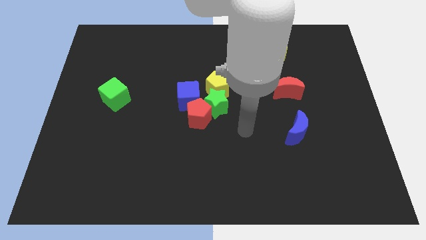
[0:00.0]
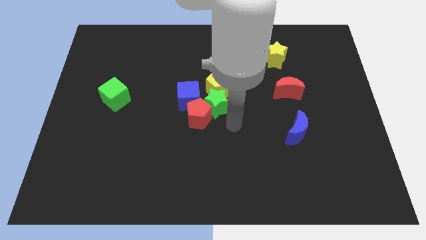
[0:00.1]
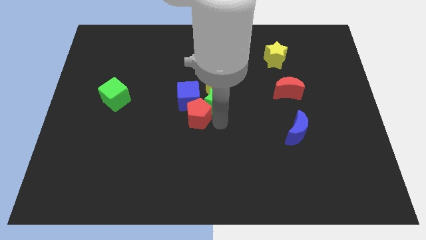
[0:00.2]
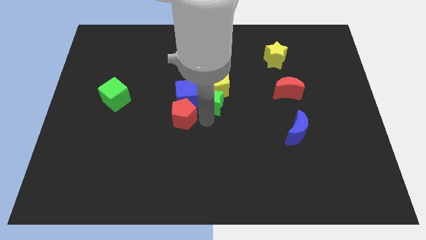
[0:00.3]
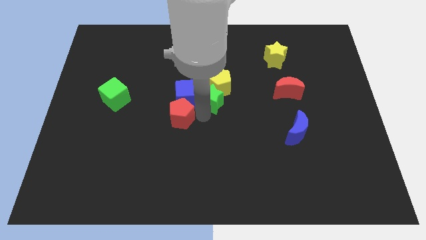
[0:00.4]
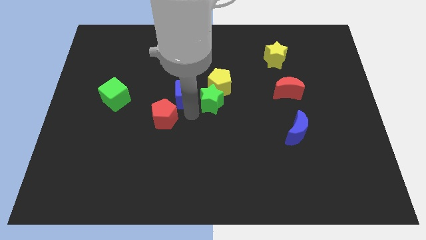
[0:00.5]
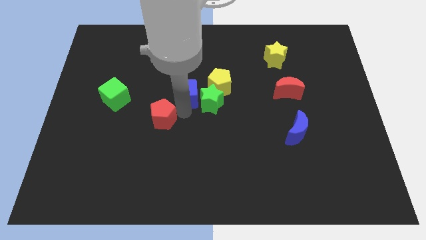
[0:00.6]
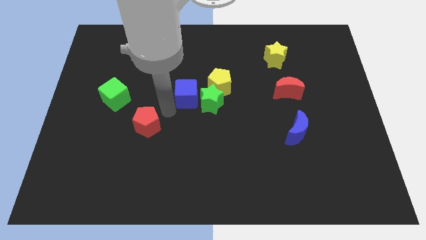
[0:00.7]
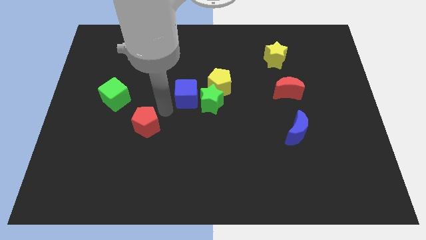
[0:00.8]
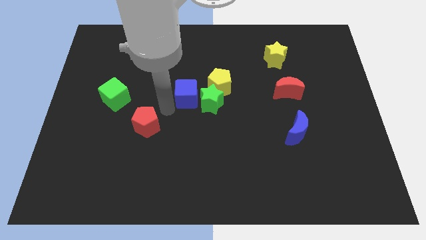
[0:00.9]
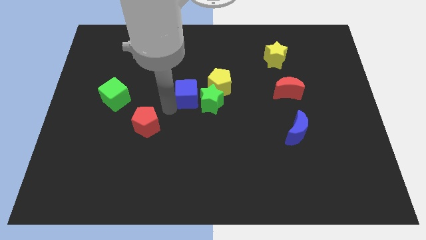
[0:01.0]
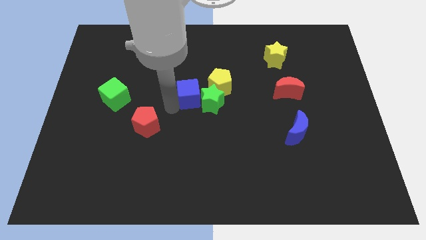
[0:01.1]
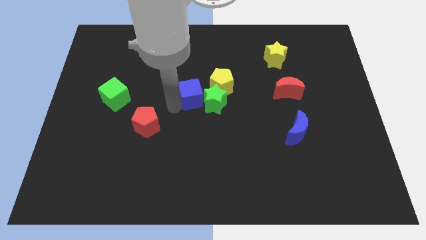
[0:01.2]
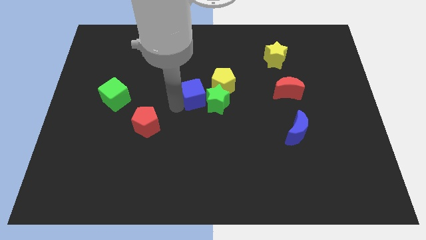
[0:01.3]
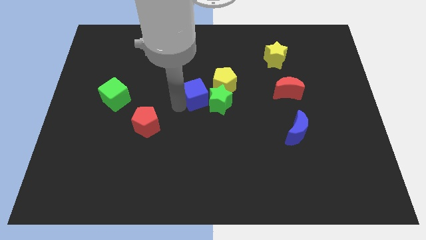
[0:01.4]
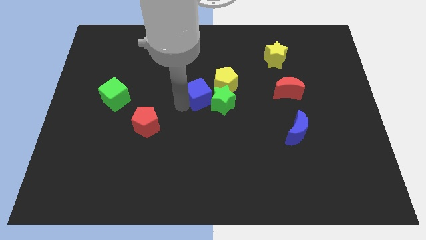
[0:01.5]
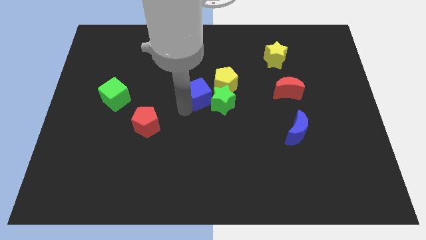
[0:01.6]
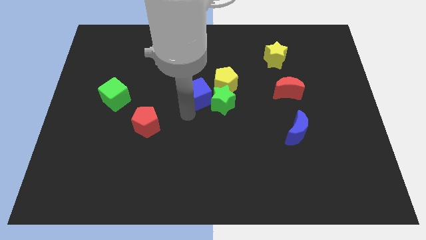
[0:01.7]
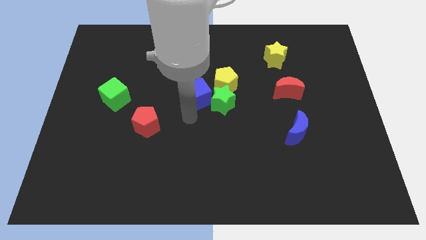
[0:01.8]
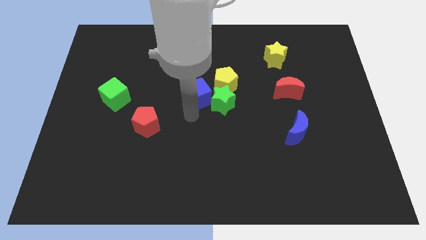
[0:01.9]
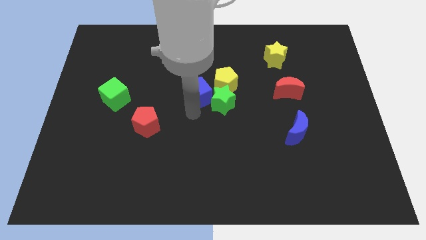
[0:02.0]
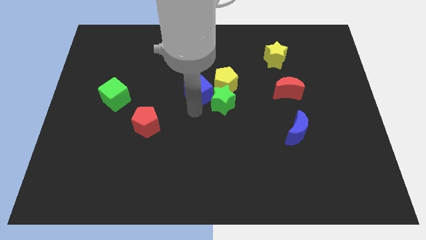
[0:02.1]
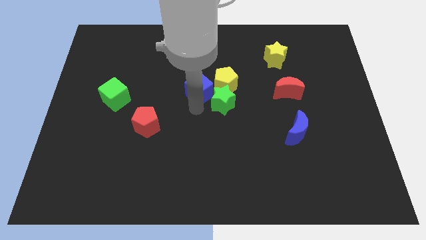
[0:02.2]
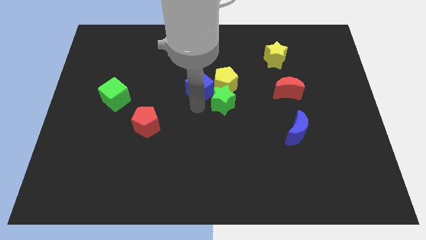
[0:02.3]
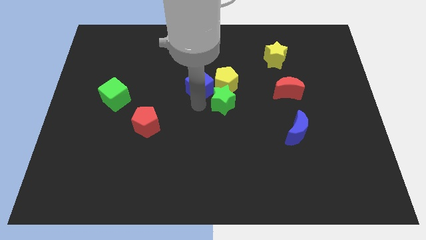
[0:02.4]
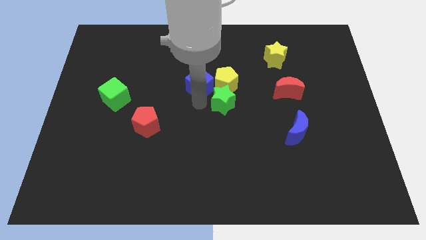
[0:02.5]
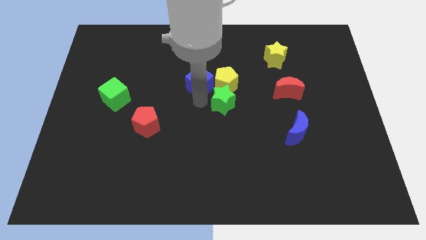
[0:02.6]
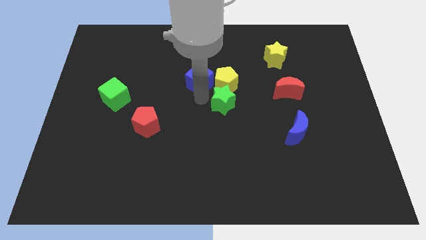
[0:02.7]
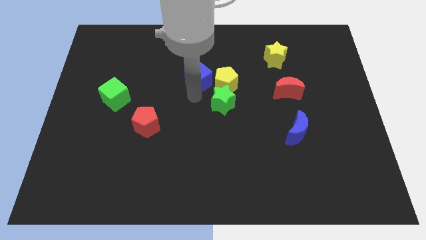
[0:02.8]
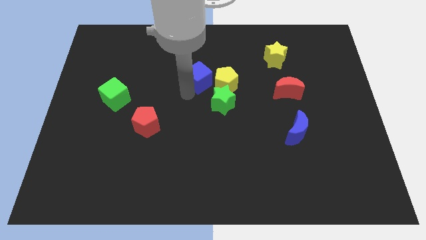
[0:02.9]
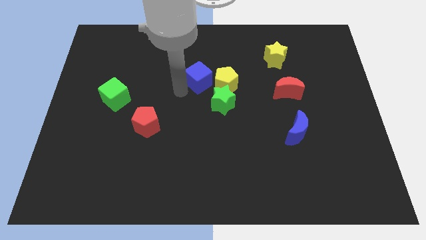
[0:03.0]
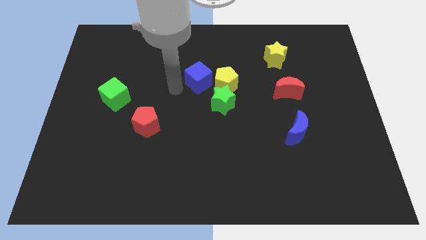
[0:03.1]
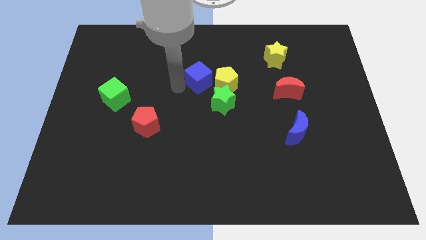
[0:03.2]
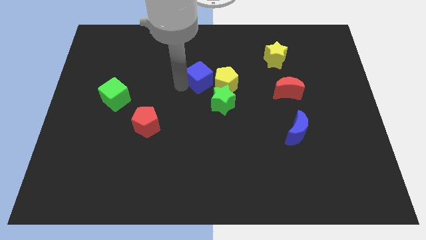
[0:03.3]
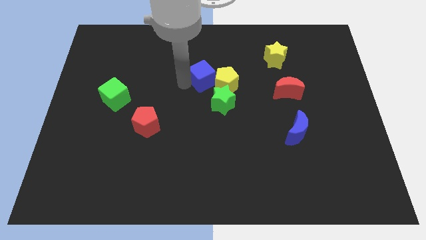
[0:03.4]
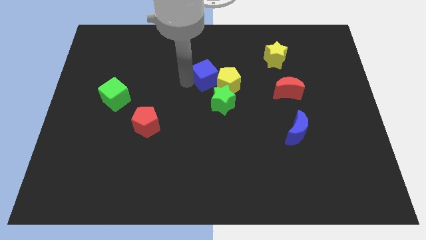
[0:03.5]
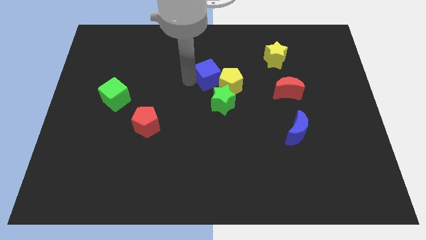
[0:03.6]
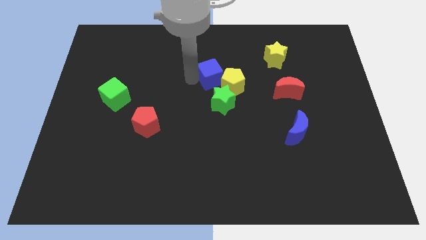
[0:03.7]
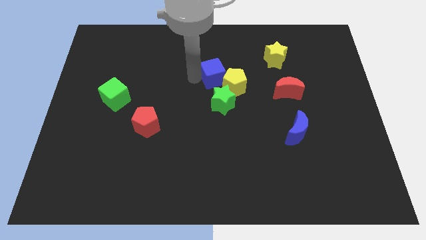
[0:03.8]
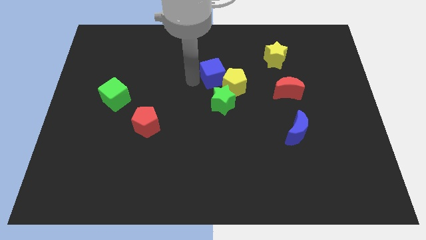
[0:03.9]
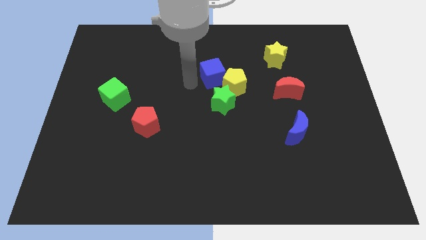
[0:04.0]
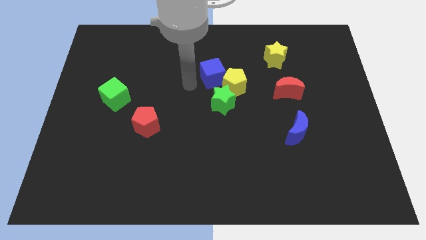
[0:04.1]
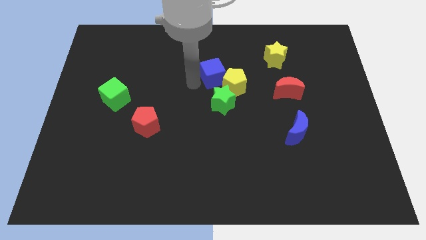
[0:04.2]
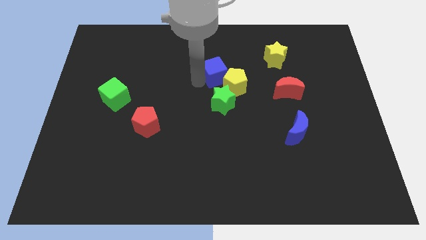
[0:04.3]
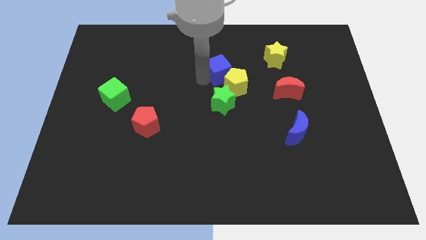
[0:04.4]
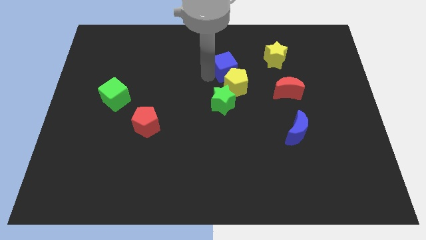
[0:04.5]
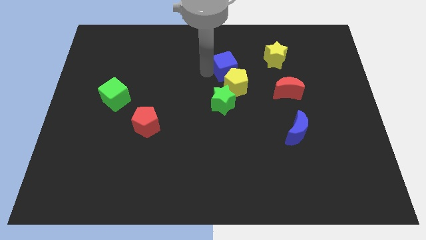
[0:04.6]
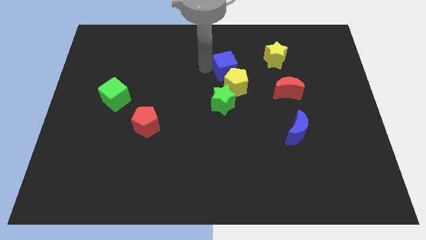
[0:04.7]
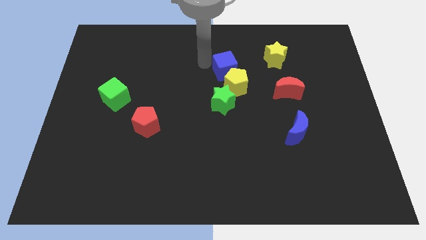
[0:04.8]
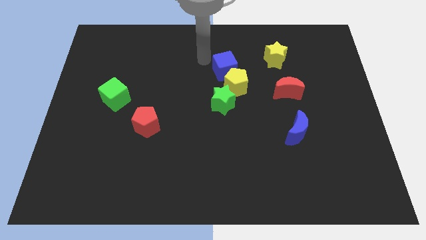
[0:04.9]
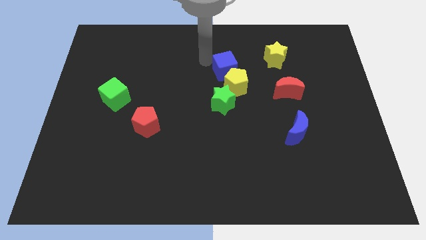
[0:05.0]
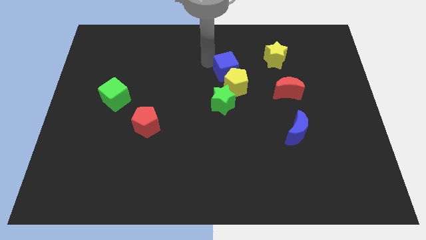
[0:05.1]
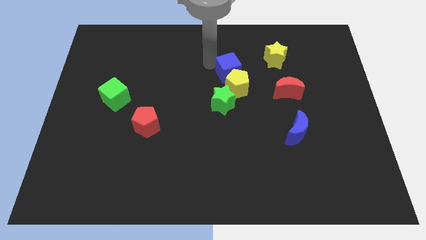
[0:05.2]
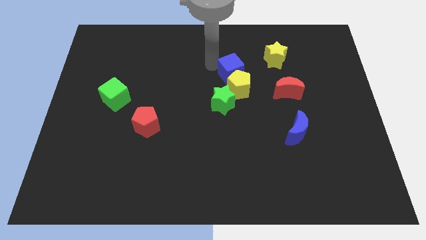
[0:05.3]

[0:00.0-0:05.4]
push the blue cube somewhat right

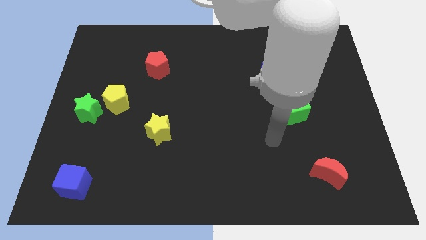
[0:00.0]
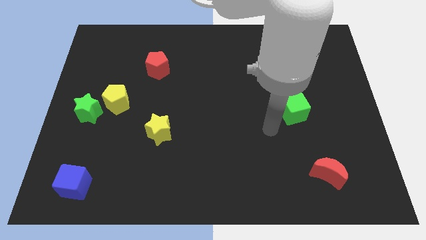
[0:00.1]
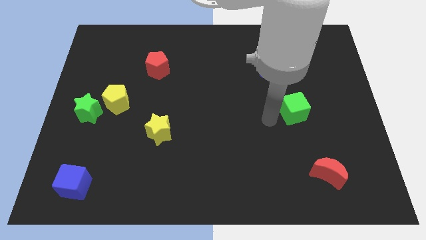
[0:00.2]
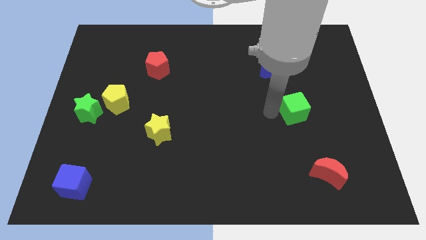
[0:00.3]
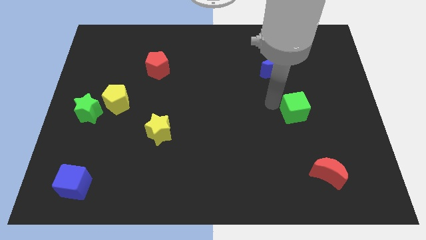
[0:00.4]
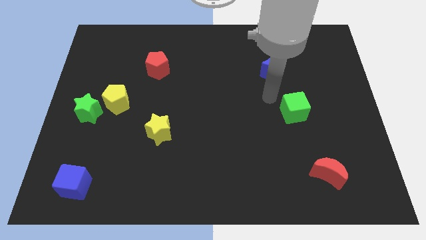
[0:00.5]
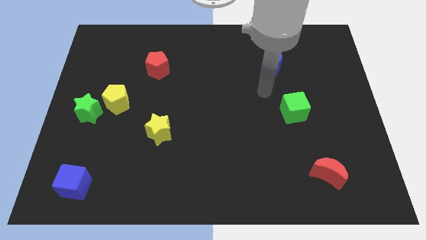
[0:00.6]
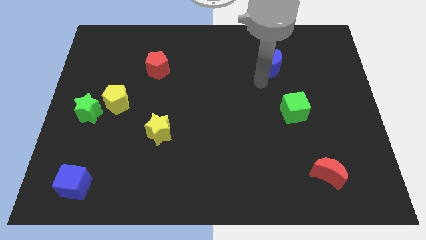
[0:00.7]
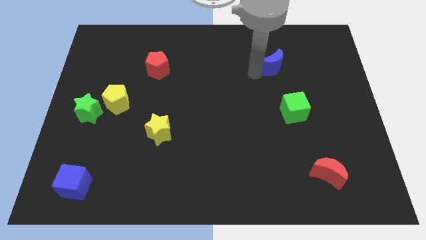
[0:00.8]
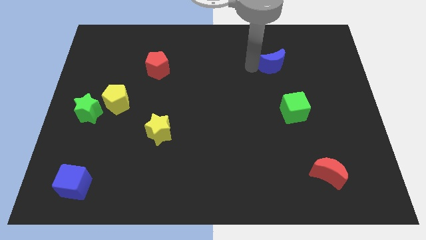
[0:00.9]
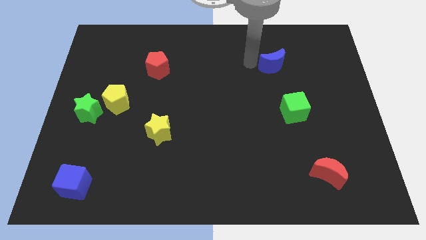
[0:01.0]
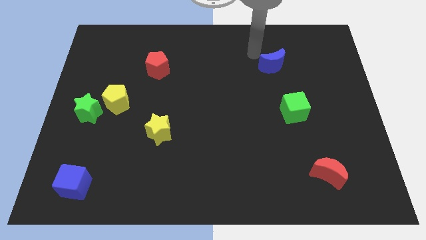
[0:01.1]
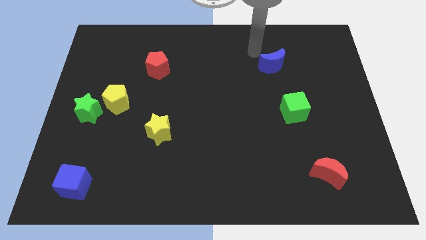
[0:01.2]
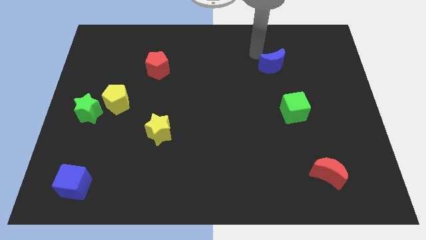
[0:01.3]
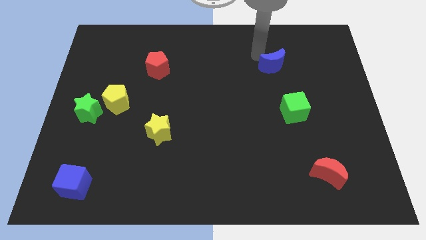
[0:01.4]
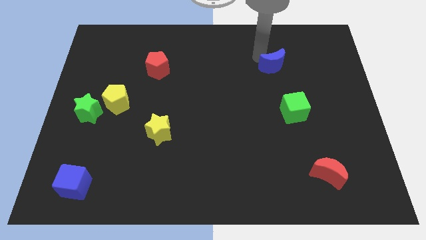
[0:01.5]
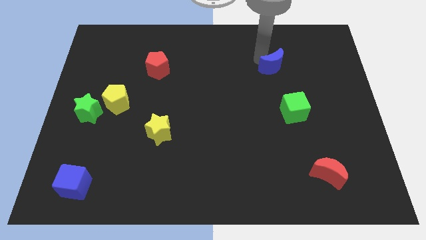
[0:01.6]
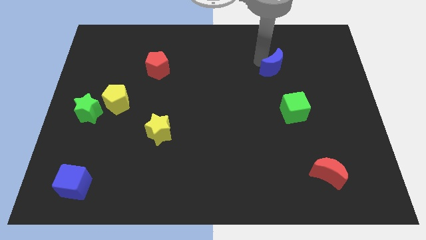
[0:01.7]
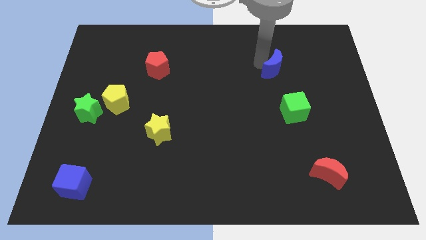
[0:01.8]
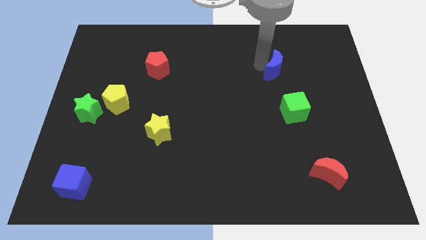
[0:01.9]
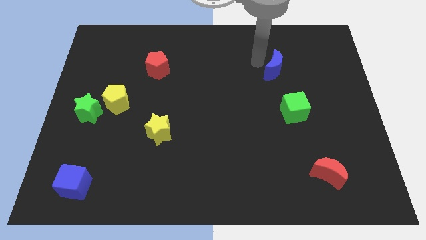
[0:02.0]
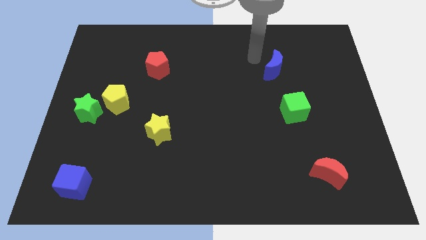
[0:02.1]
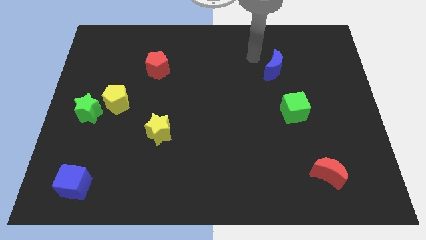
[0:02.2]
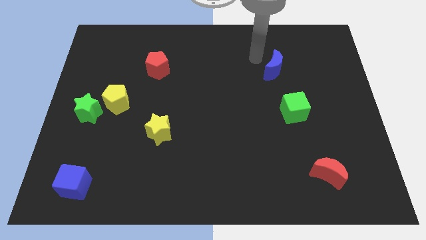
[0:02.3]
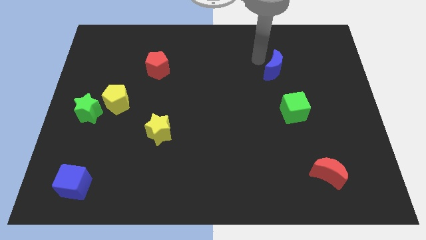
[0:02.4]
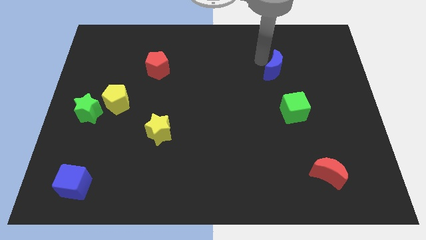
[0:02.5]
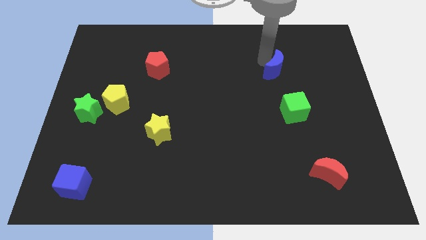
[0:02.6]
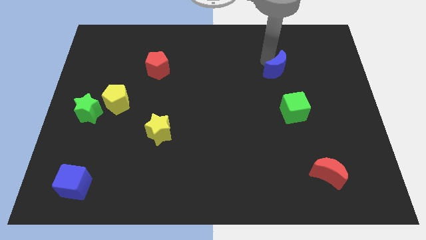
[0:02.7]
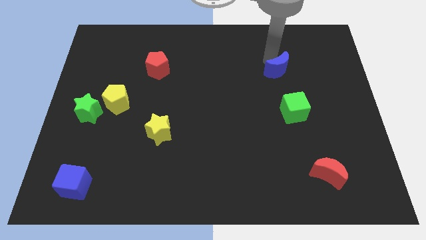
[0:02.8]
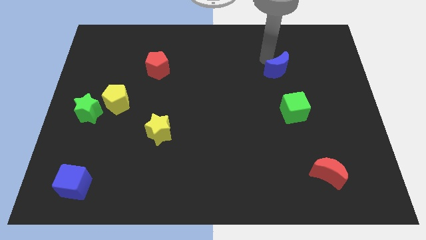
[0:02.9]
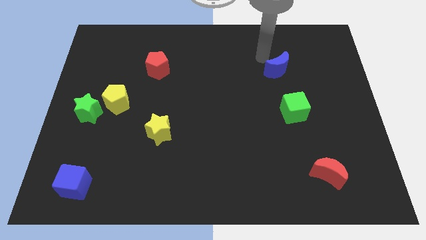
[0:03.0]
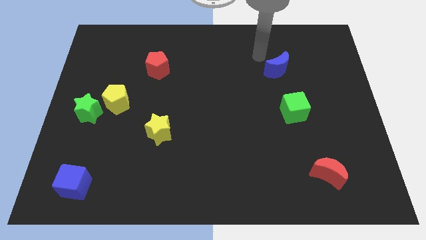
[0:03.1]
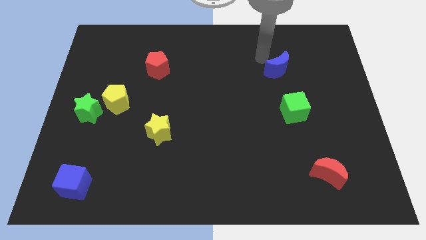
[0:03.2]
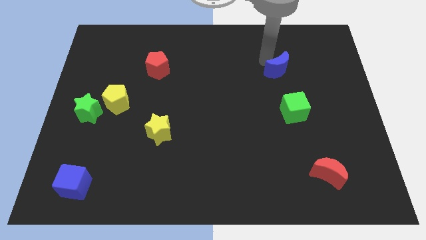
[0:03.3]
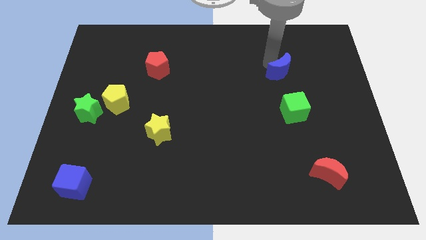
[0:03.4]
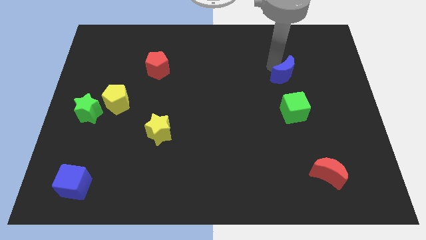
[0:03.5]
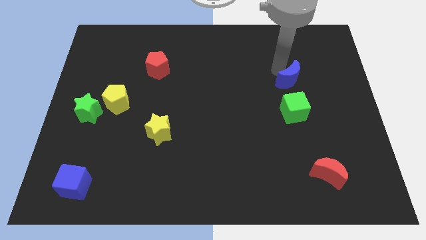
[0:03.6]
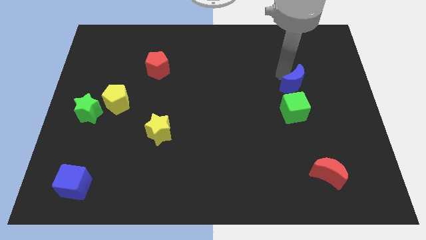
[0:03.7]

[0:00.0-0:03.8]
push the blue moon diagonally downwards and right a bit
